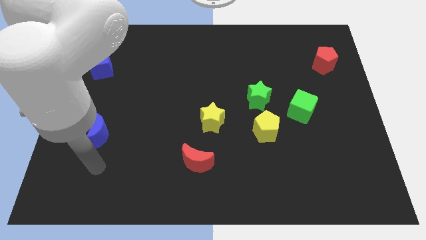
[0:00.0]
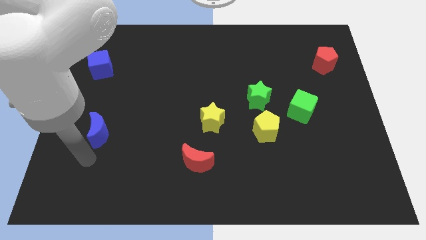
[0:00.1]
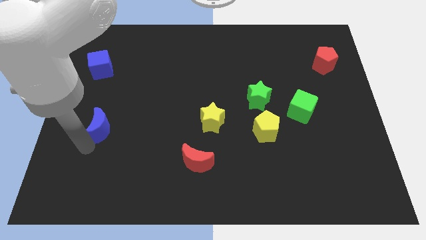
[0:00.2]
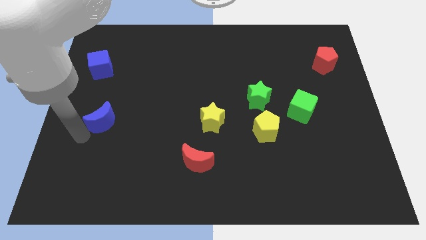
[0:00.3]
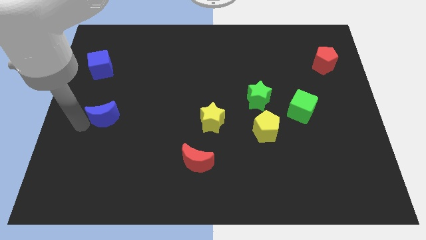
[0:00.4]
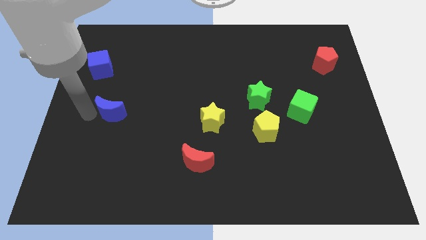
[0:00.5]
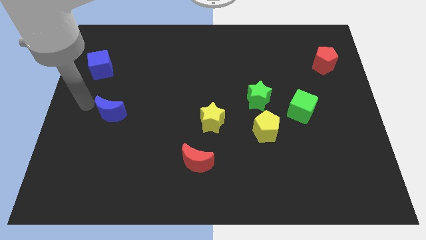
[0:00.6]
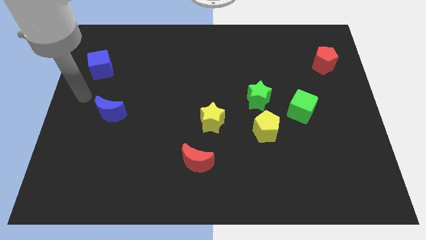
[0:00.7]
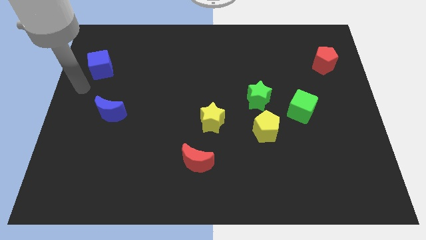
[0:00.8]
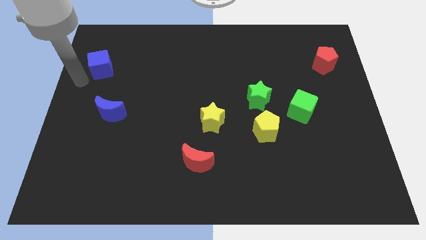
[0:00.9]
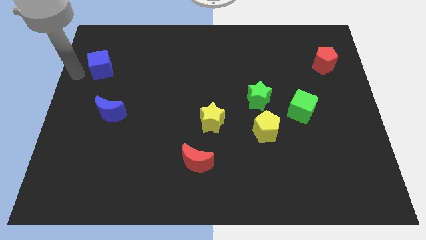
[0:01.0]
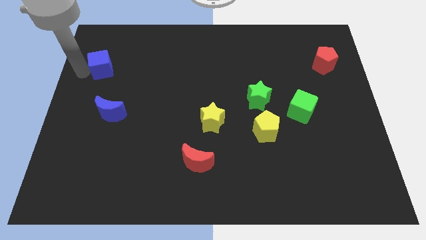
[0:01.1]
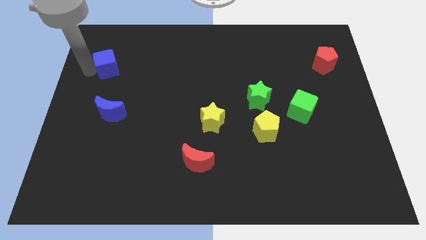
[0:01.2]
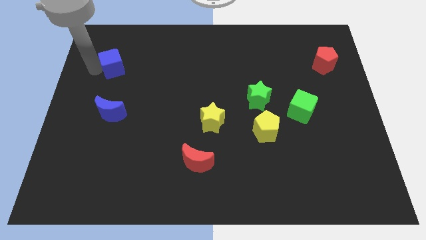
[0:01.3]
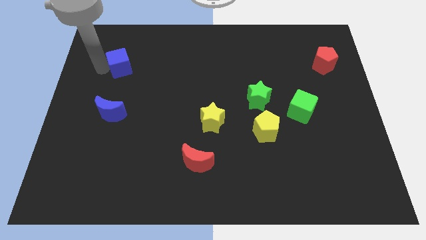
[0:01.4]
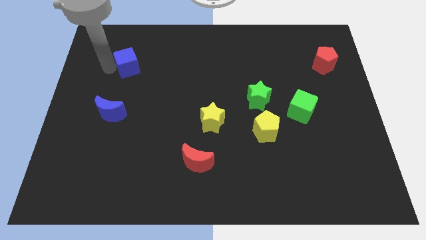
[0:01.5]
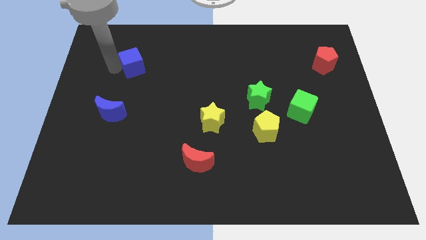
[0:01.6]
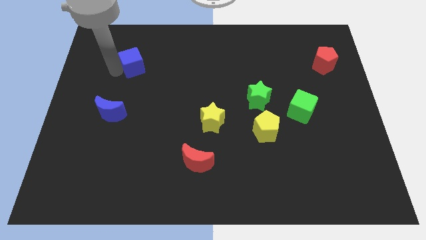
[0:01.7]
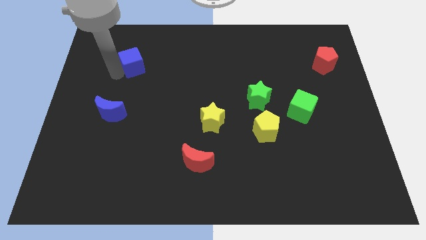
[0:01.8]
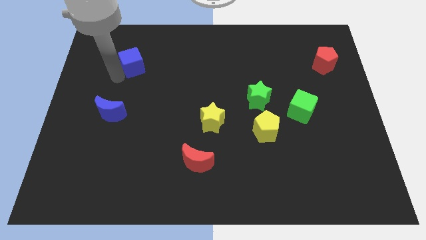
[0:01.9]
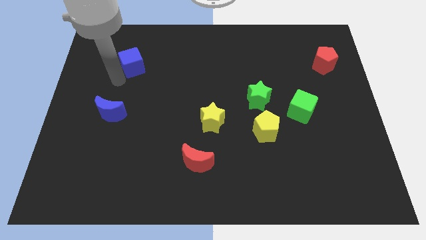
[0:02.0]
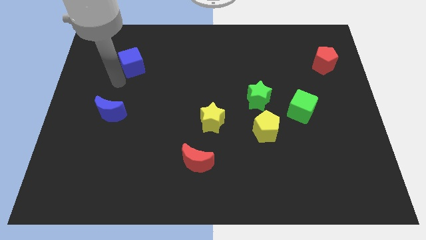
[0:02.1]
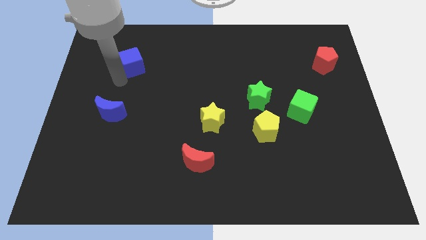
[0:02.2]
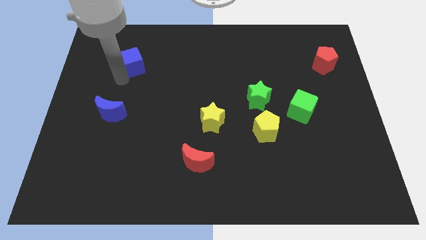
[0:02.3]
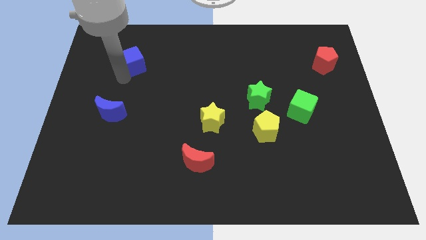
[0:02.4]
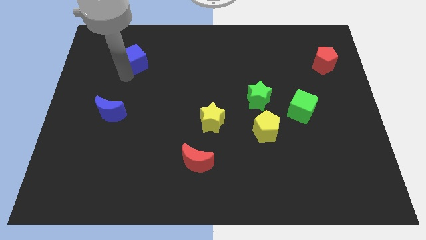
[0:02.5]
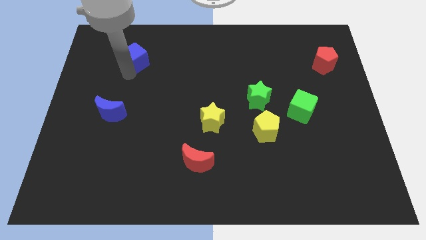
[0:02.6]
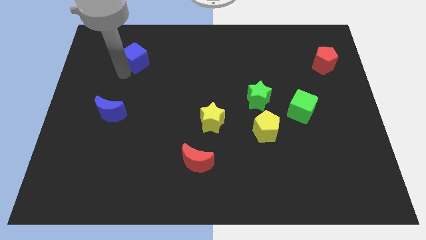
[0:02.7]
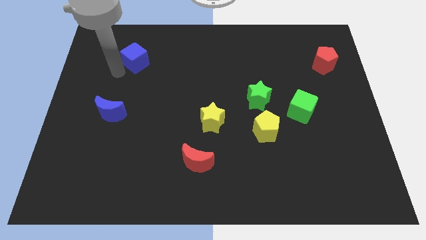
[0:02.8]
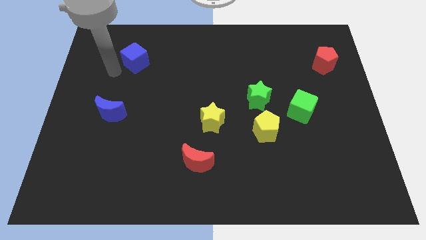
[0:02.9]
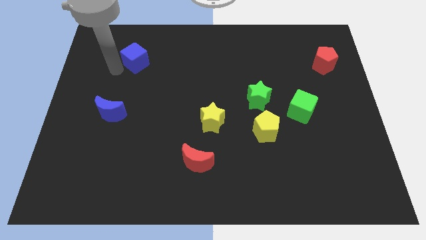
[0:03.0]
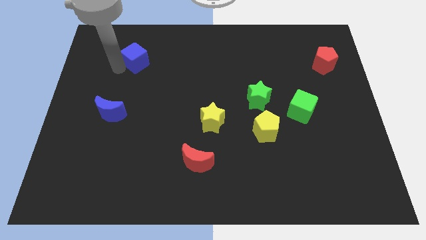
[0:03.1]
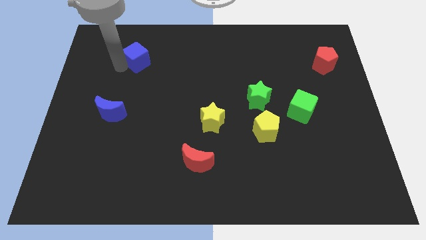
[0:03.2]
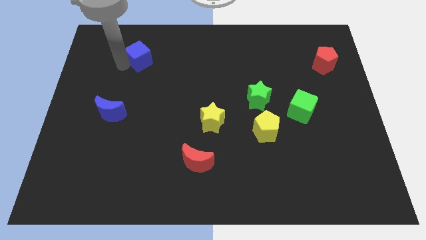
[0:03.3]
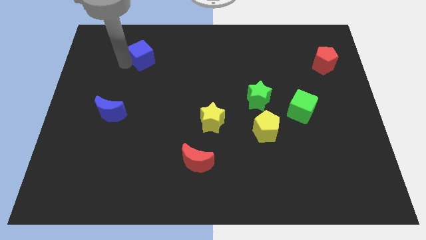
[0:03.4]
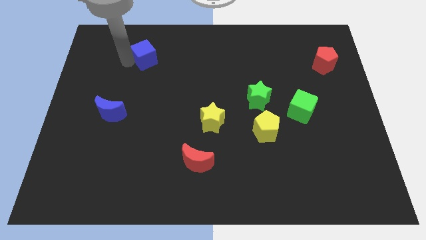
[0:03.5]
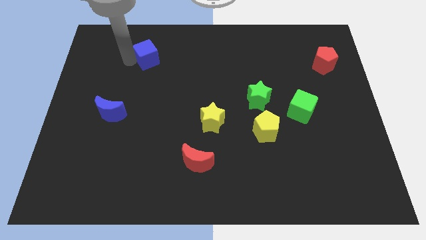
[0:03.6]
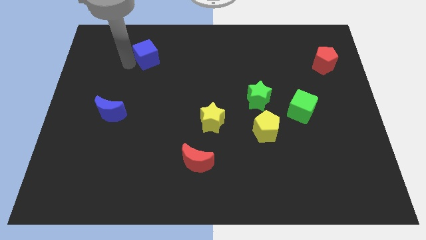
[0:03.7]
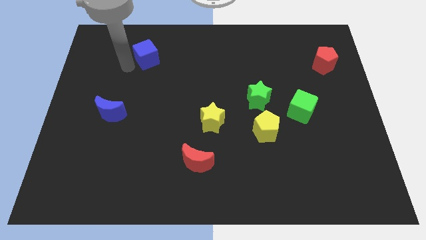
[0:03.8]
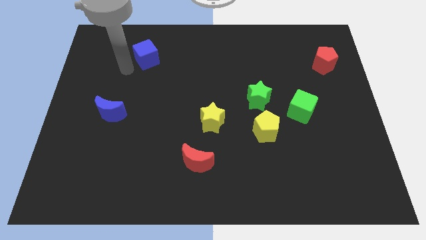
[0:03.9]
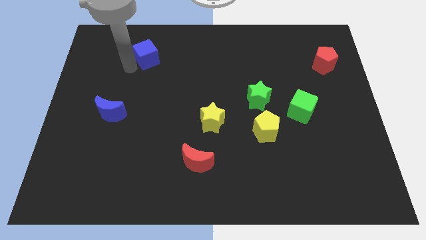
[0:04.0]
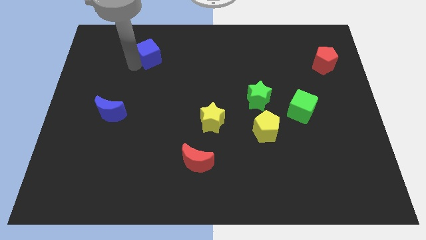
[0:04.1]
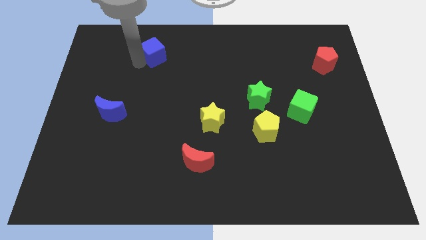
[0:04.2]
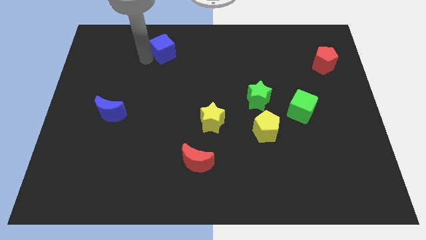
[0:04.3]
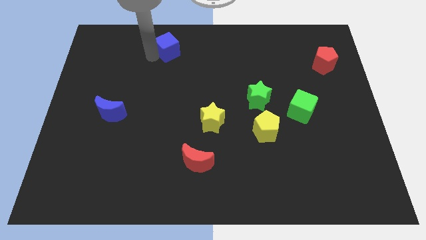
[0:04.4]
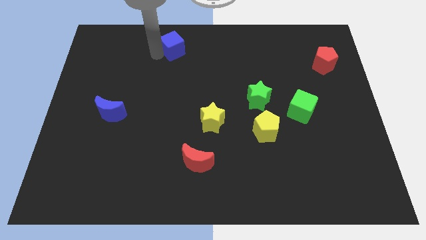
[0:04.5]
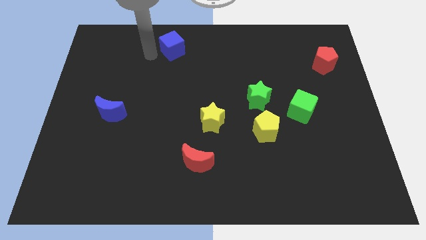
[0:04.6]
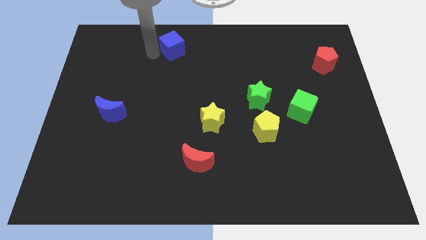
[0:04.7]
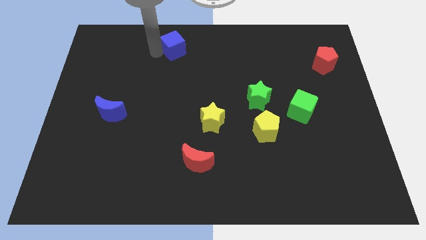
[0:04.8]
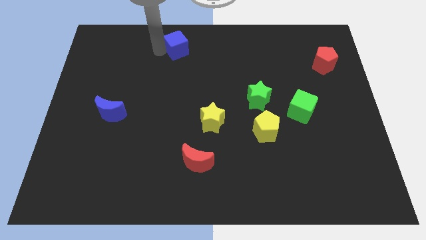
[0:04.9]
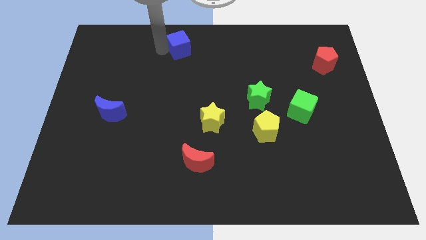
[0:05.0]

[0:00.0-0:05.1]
slide the blue cube to the top
